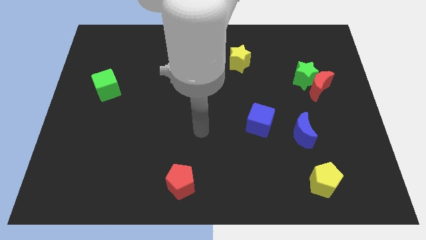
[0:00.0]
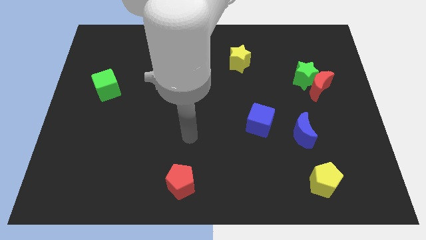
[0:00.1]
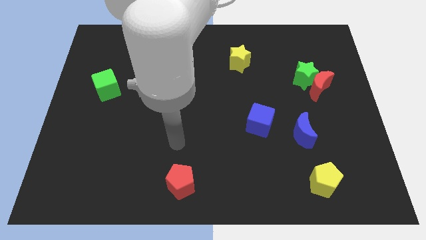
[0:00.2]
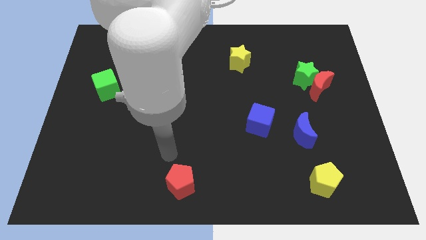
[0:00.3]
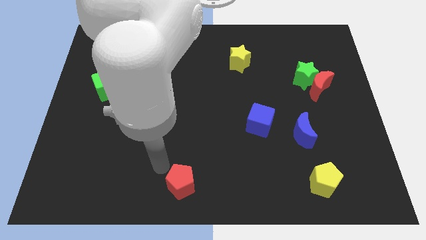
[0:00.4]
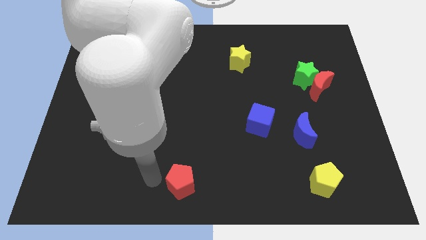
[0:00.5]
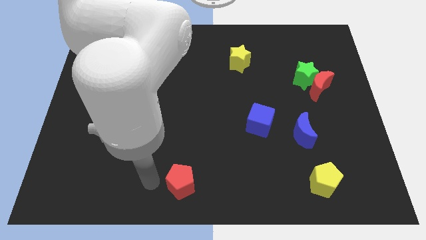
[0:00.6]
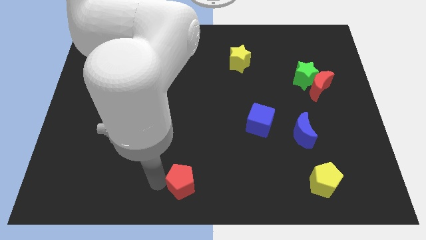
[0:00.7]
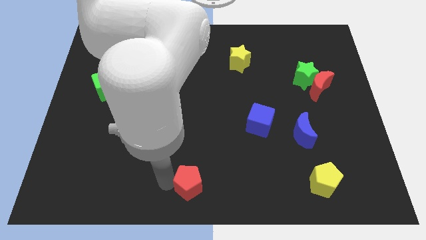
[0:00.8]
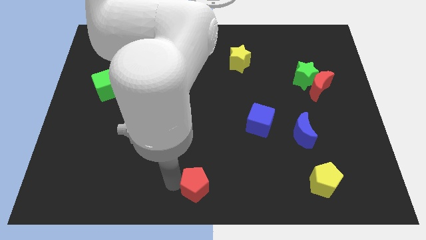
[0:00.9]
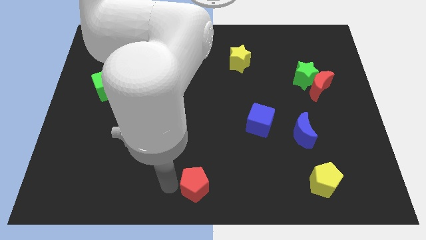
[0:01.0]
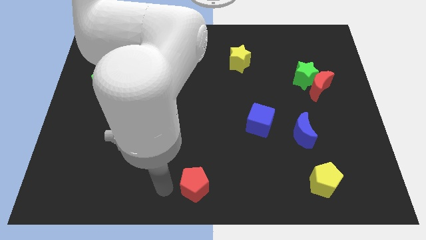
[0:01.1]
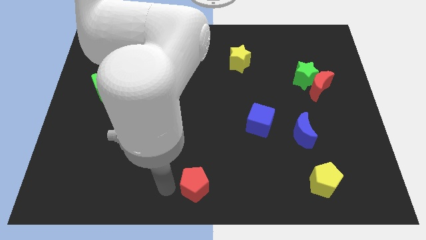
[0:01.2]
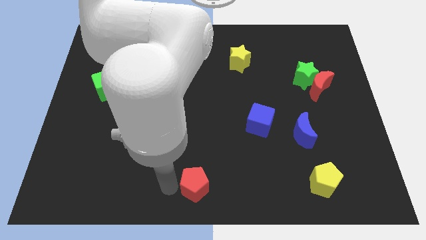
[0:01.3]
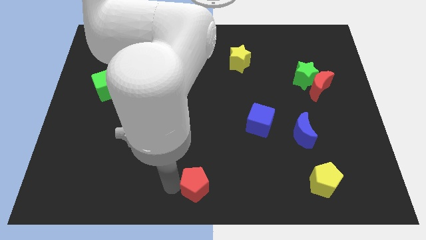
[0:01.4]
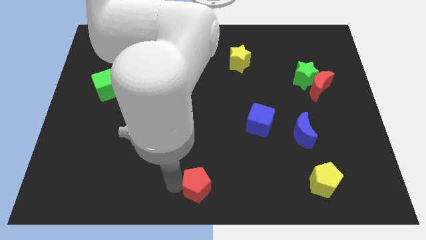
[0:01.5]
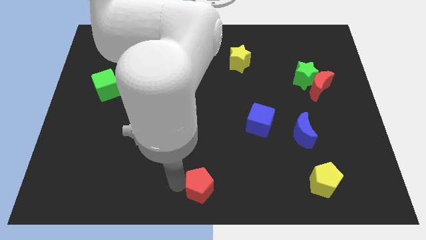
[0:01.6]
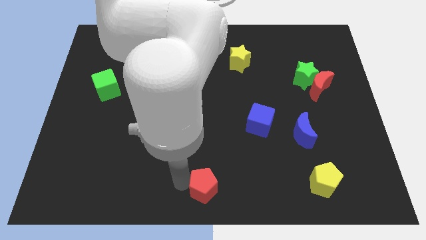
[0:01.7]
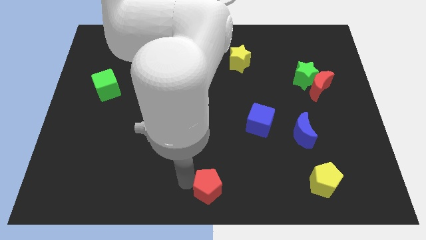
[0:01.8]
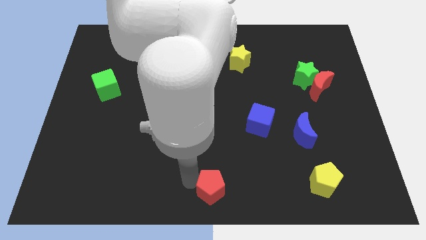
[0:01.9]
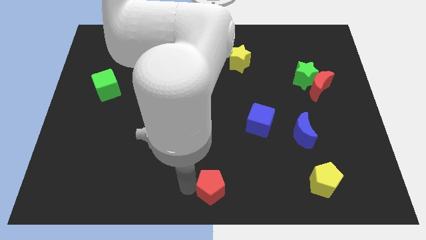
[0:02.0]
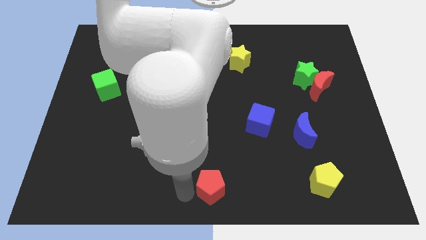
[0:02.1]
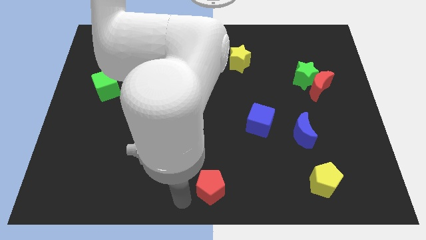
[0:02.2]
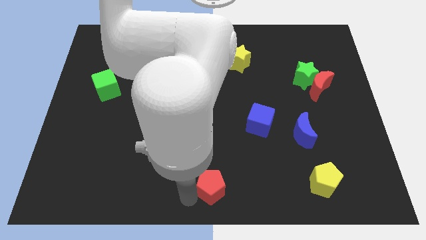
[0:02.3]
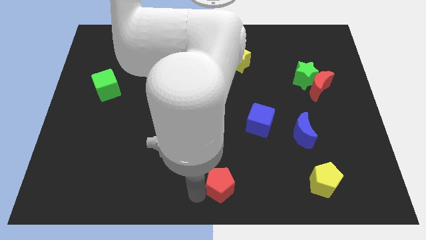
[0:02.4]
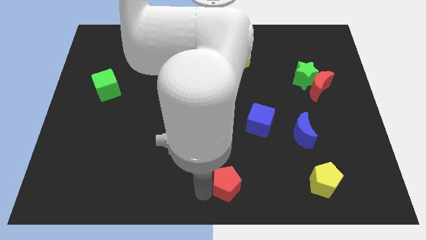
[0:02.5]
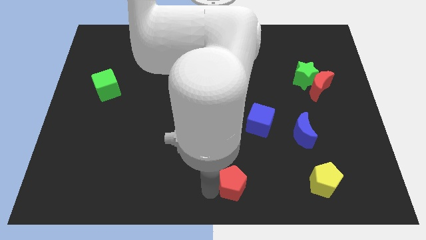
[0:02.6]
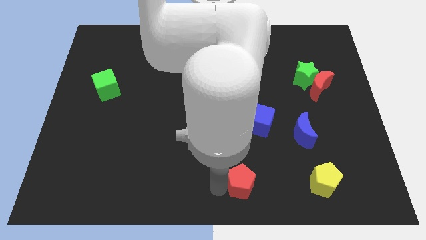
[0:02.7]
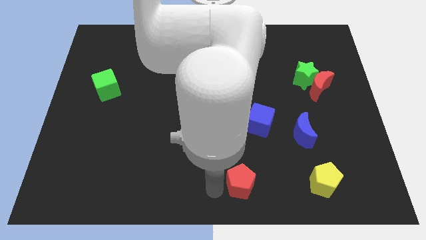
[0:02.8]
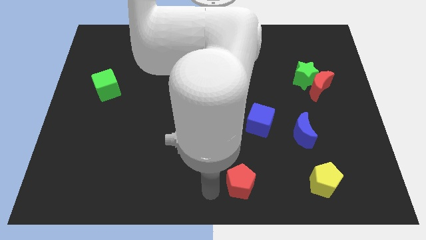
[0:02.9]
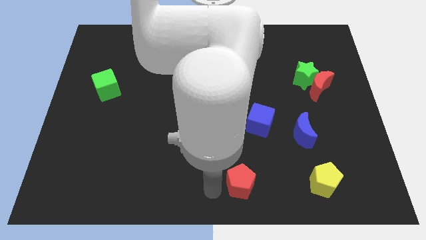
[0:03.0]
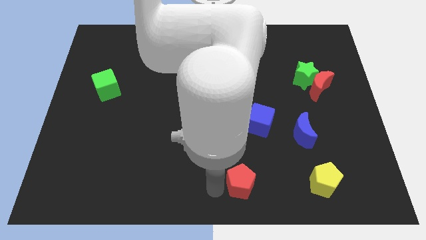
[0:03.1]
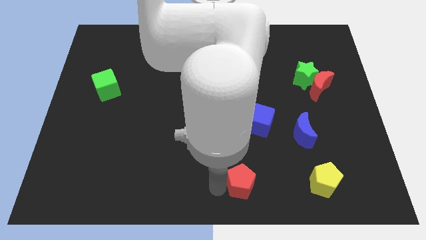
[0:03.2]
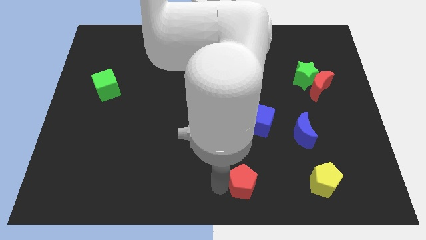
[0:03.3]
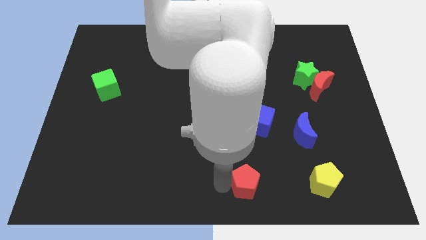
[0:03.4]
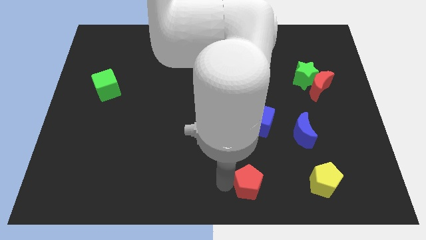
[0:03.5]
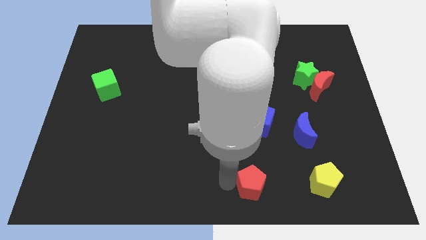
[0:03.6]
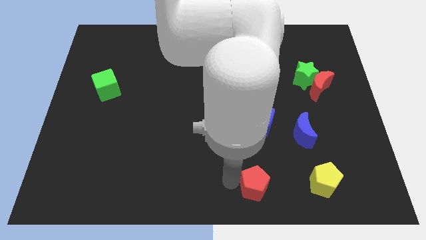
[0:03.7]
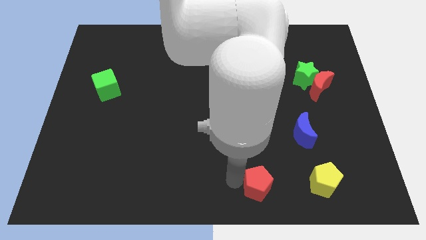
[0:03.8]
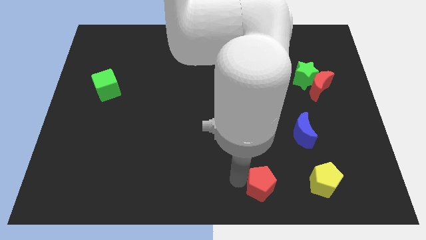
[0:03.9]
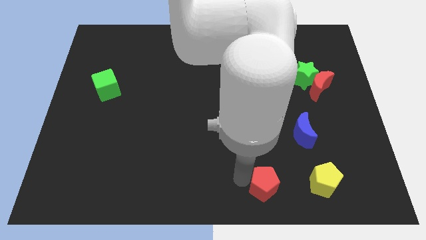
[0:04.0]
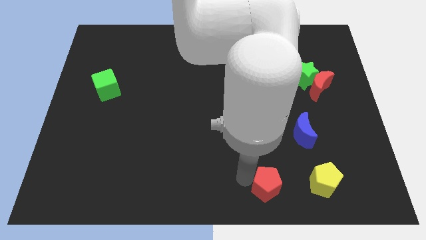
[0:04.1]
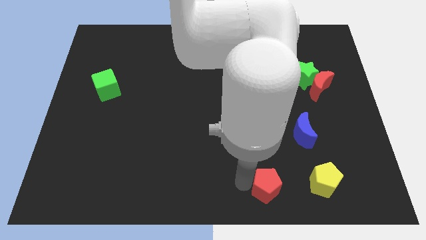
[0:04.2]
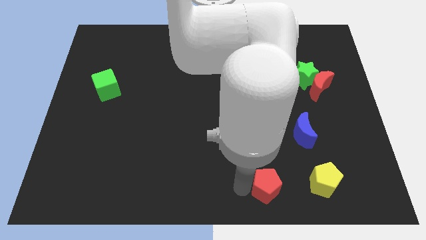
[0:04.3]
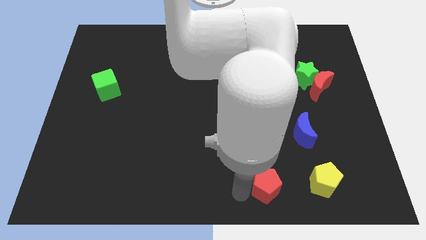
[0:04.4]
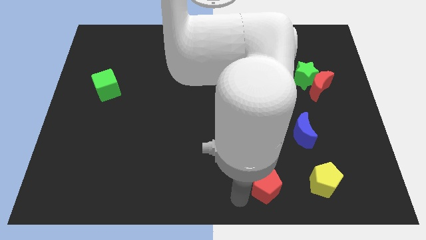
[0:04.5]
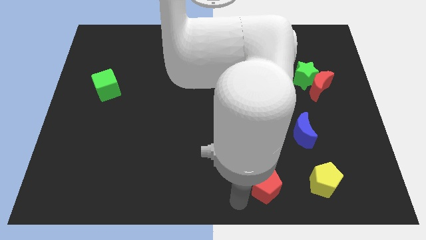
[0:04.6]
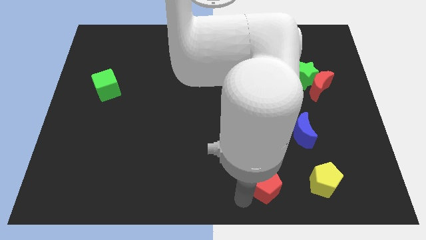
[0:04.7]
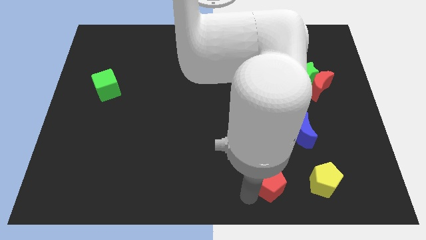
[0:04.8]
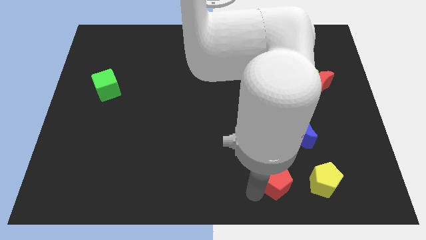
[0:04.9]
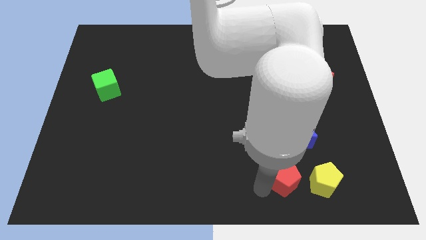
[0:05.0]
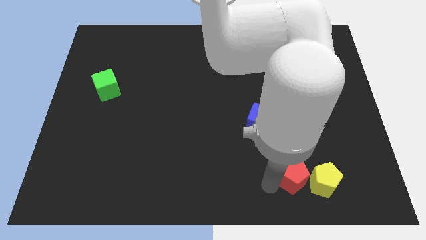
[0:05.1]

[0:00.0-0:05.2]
push the red pentagon next to the yellow pentagon

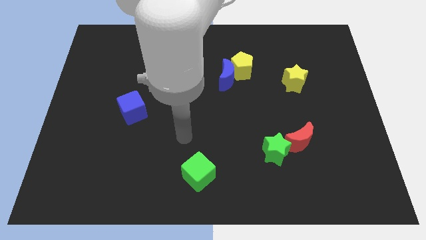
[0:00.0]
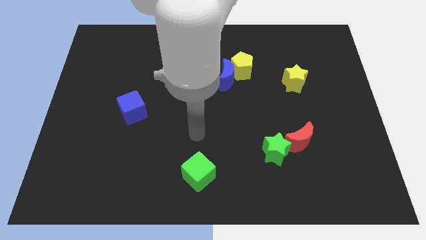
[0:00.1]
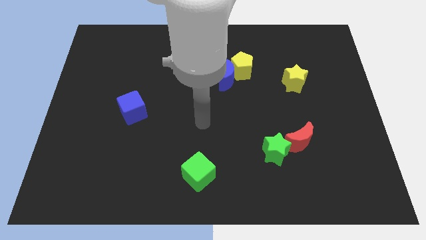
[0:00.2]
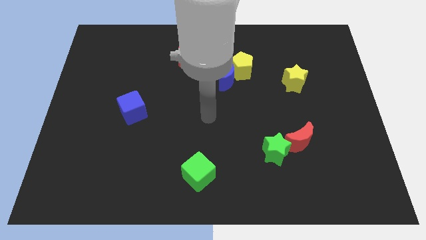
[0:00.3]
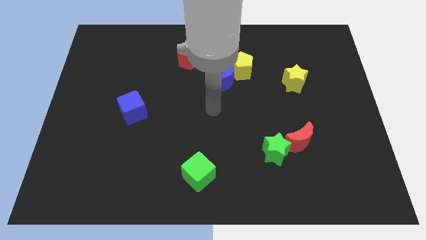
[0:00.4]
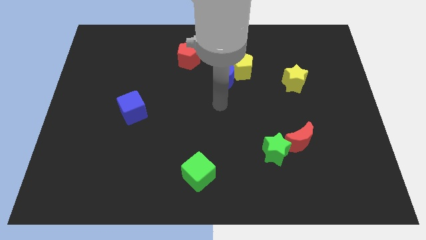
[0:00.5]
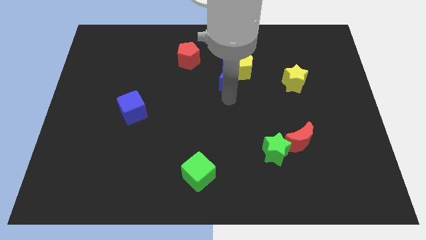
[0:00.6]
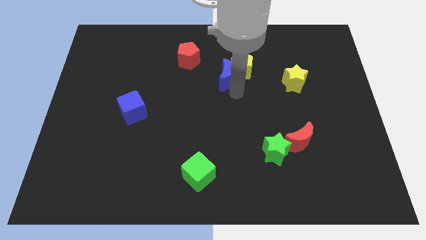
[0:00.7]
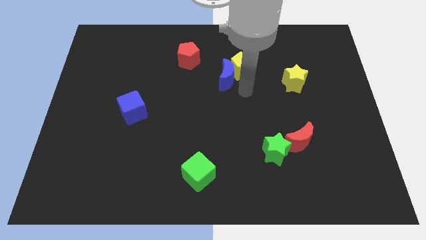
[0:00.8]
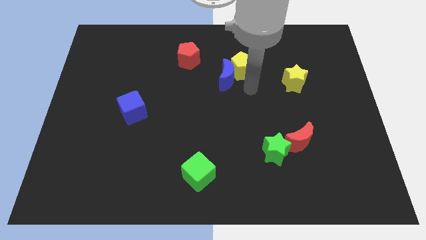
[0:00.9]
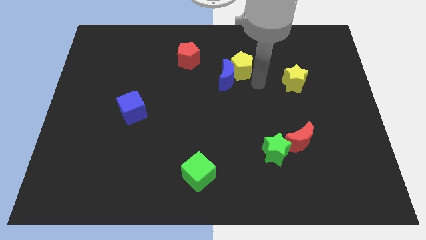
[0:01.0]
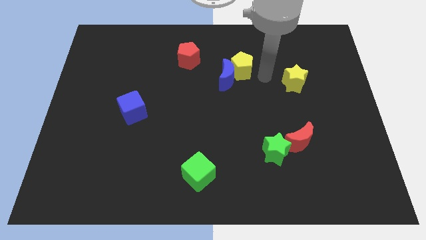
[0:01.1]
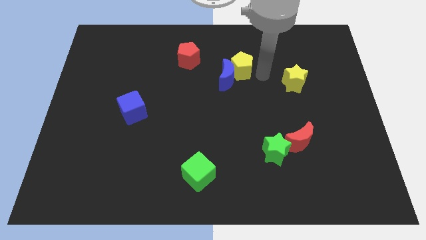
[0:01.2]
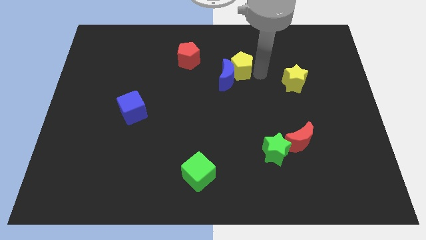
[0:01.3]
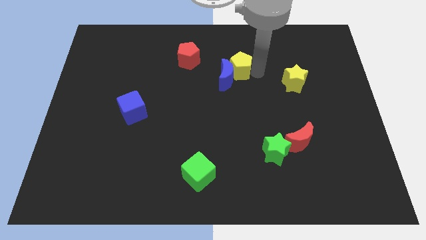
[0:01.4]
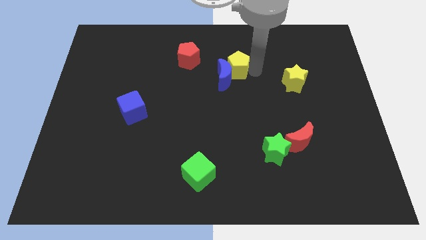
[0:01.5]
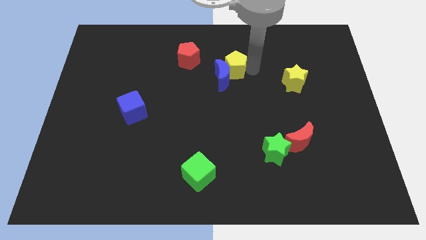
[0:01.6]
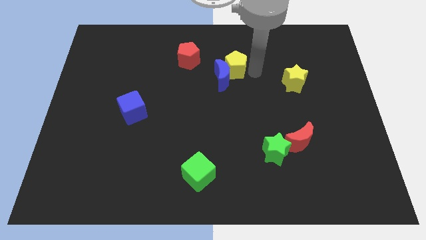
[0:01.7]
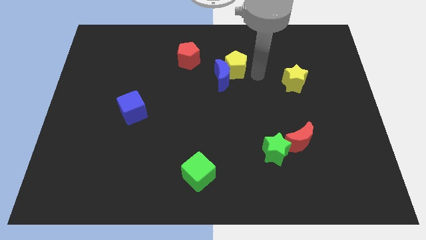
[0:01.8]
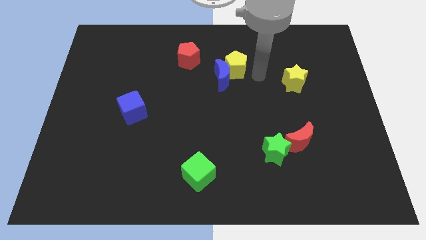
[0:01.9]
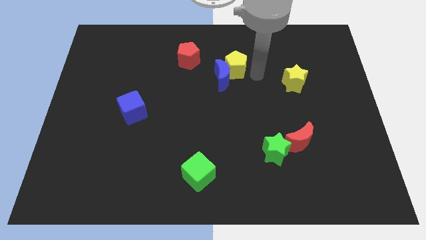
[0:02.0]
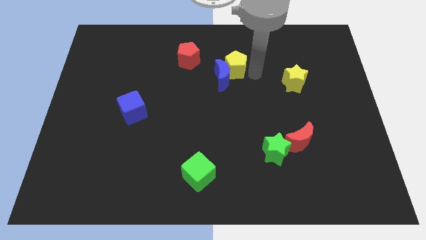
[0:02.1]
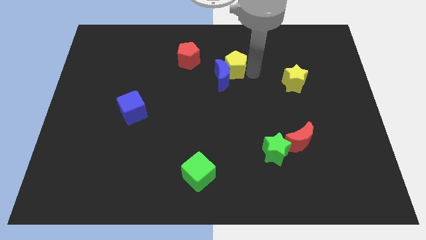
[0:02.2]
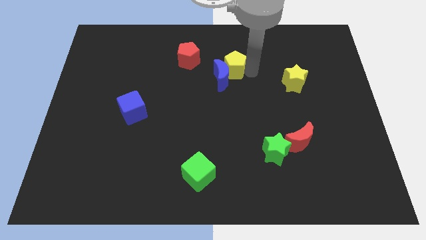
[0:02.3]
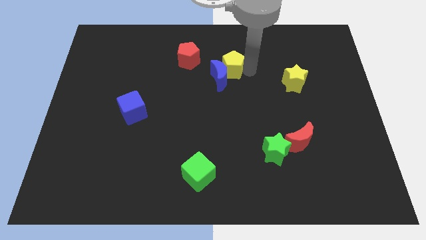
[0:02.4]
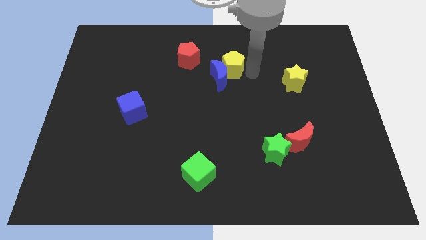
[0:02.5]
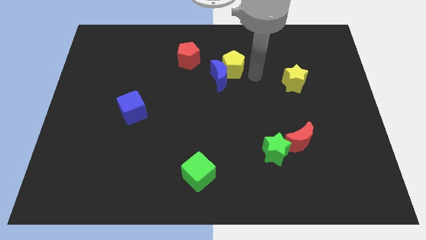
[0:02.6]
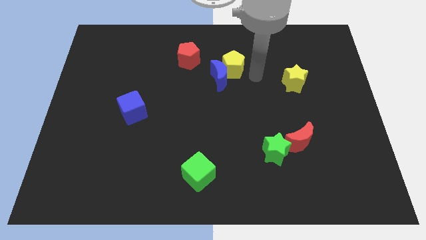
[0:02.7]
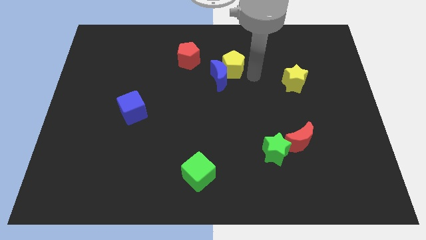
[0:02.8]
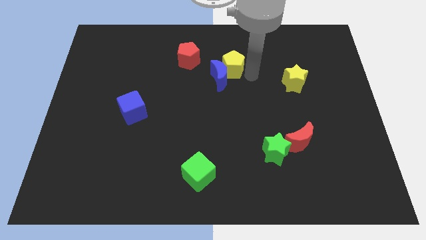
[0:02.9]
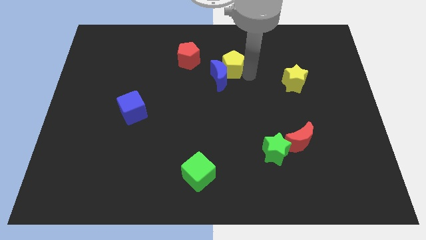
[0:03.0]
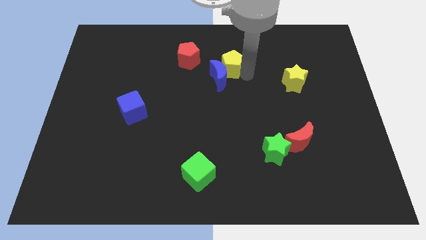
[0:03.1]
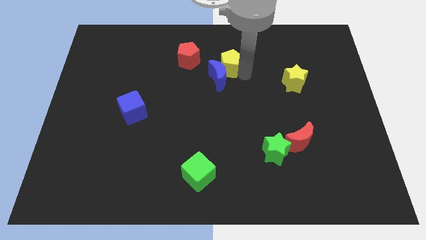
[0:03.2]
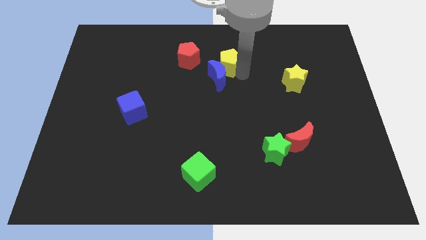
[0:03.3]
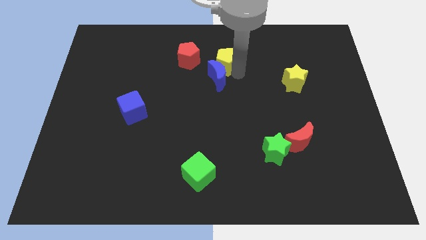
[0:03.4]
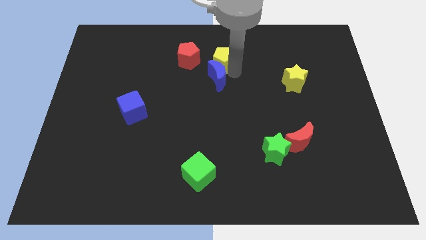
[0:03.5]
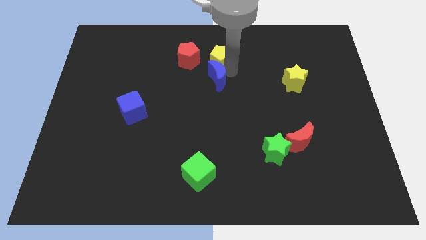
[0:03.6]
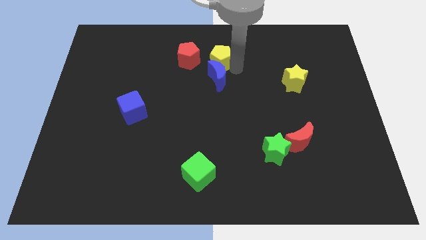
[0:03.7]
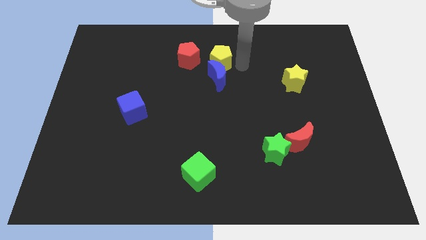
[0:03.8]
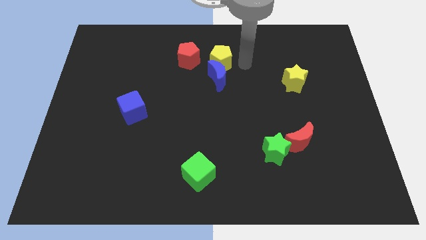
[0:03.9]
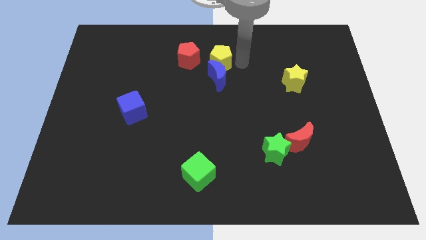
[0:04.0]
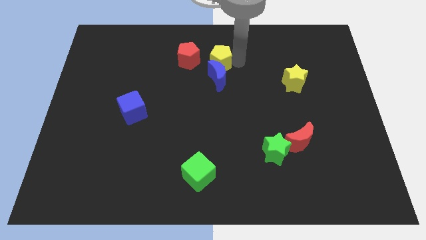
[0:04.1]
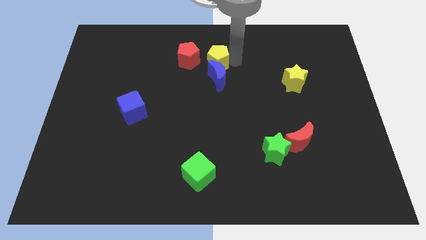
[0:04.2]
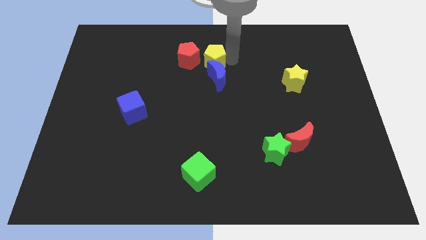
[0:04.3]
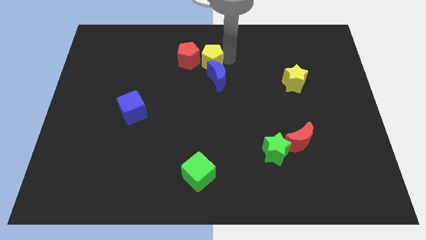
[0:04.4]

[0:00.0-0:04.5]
slide the yellow pentagon to the red pentagon
